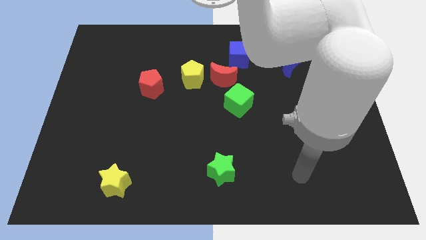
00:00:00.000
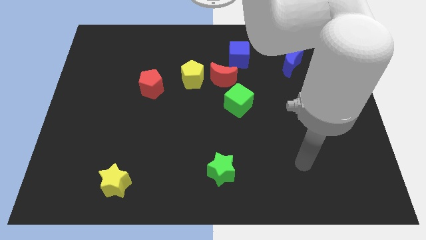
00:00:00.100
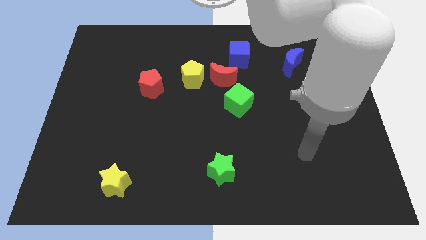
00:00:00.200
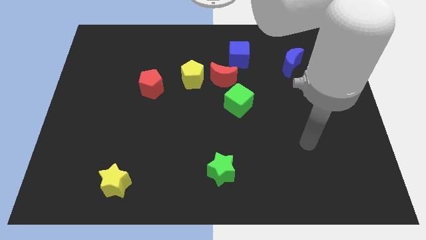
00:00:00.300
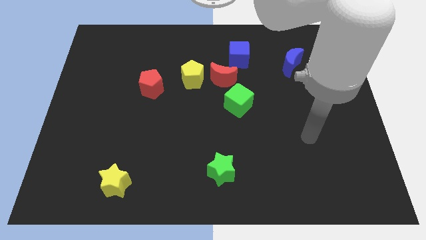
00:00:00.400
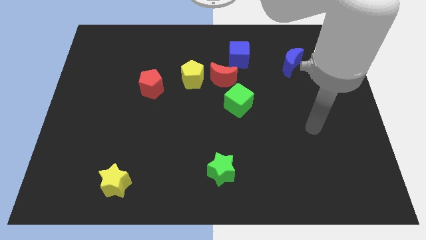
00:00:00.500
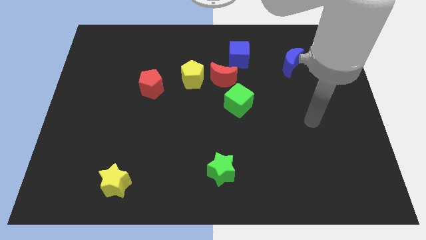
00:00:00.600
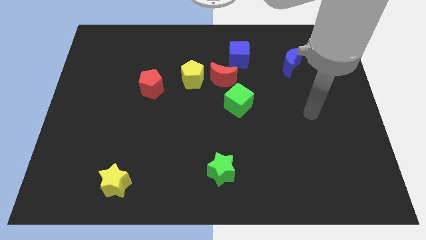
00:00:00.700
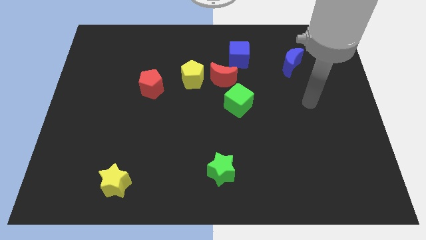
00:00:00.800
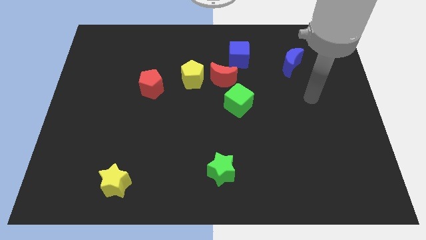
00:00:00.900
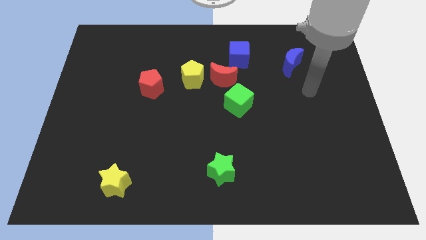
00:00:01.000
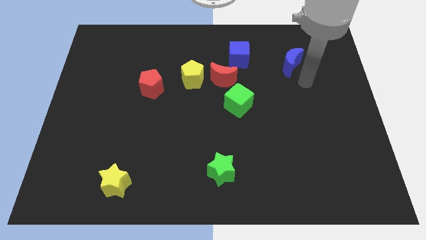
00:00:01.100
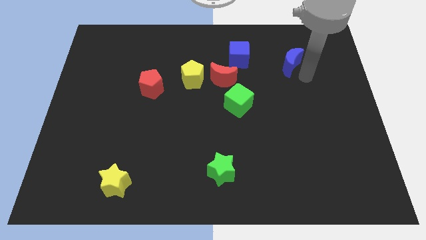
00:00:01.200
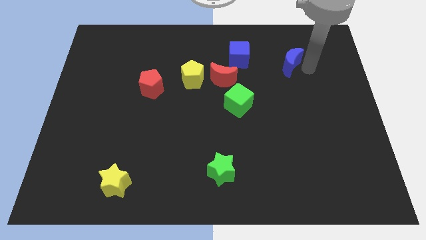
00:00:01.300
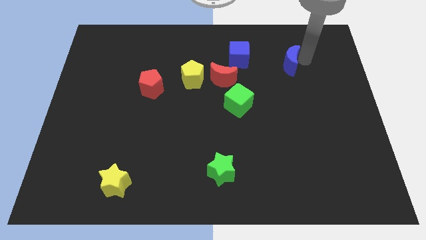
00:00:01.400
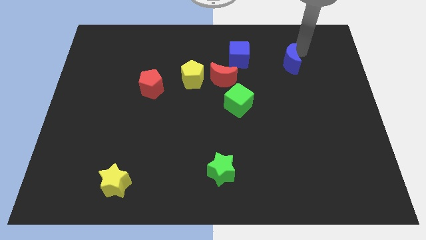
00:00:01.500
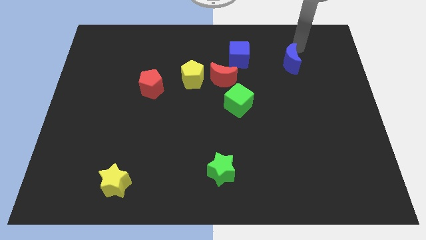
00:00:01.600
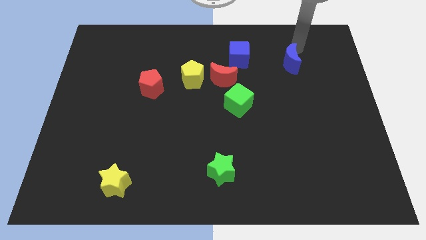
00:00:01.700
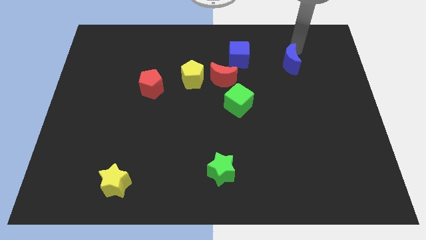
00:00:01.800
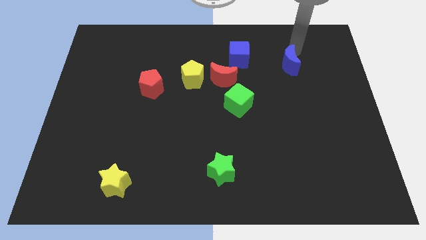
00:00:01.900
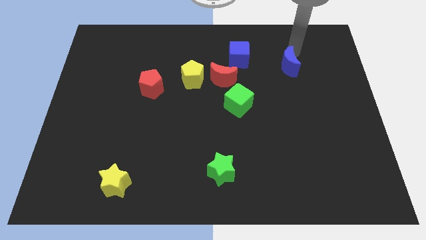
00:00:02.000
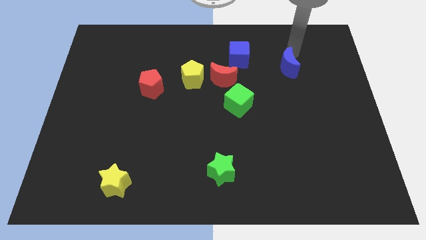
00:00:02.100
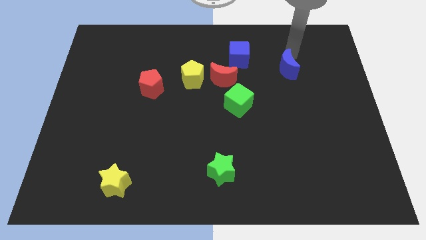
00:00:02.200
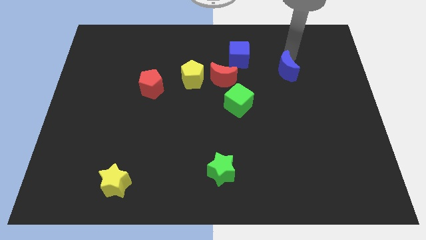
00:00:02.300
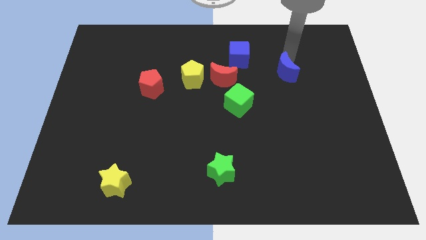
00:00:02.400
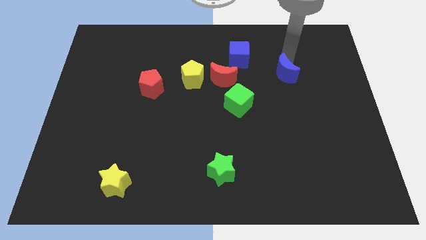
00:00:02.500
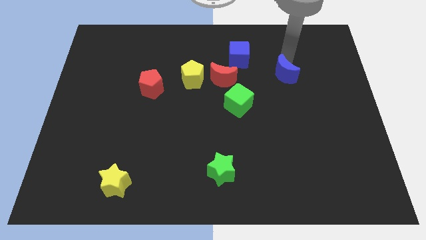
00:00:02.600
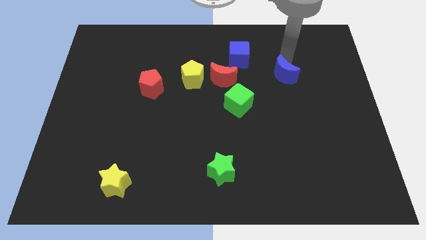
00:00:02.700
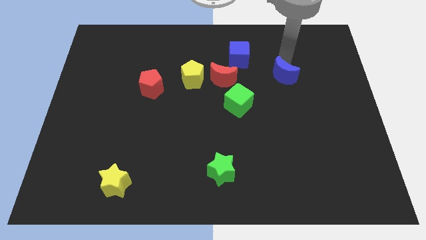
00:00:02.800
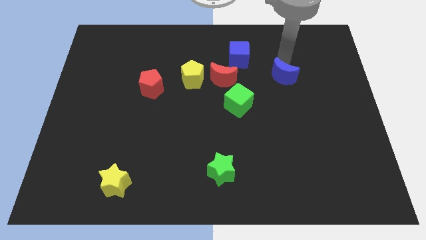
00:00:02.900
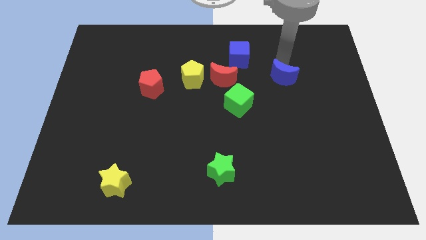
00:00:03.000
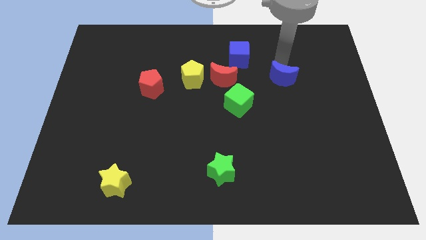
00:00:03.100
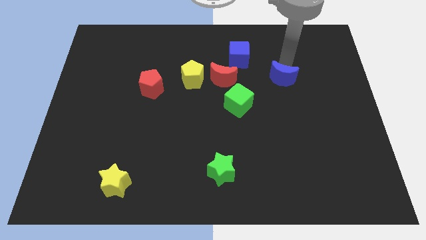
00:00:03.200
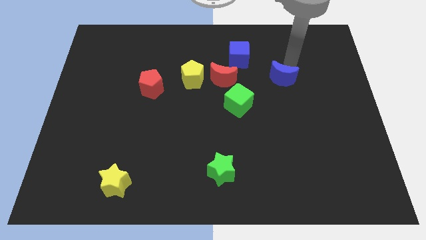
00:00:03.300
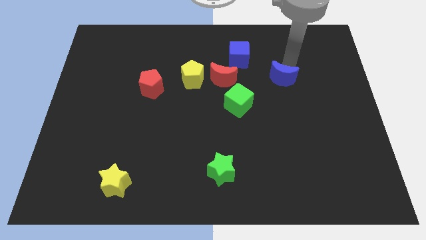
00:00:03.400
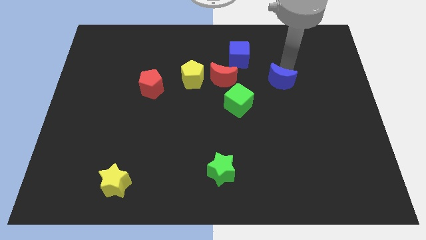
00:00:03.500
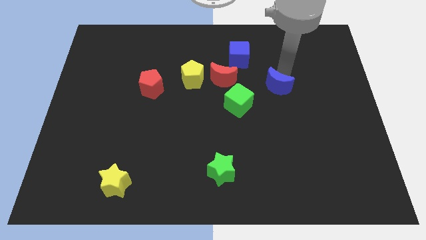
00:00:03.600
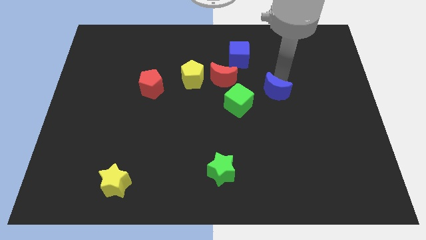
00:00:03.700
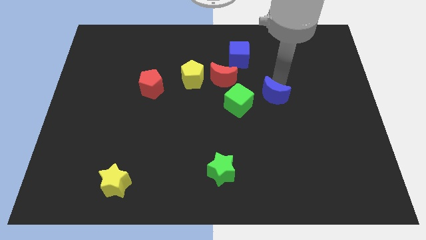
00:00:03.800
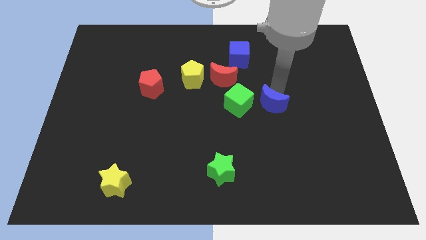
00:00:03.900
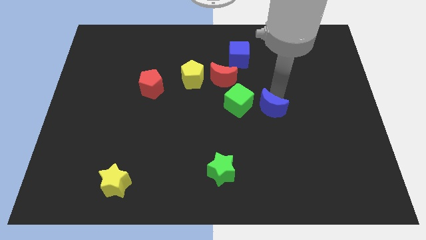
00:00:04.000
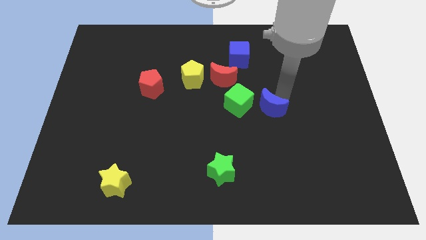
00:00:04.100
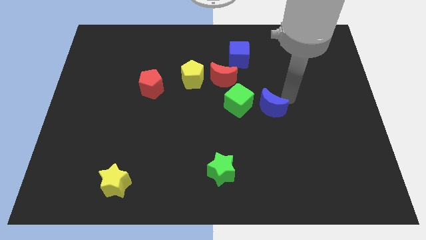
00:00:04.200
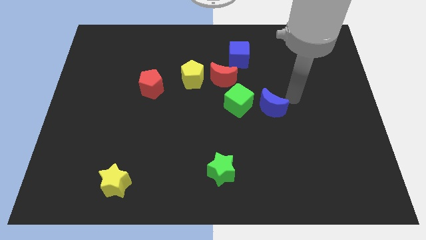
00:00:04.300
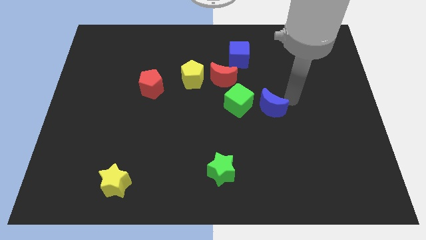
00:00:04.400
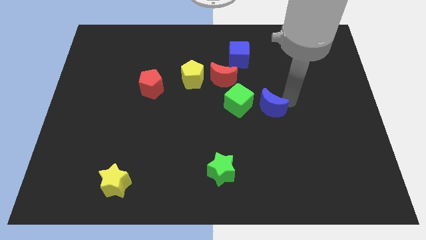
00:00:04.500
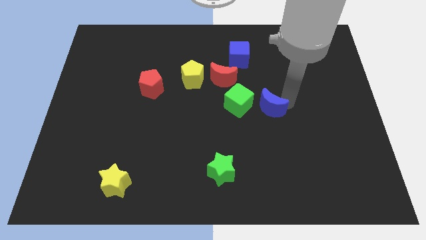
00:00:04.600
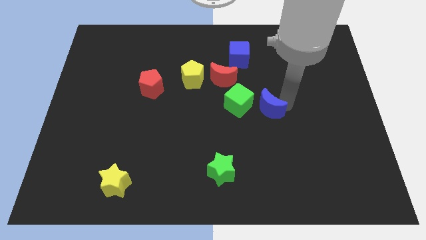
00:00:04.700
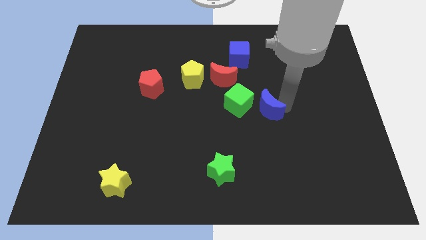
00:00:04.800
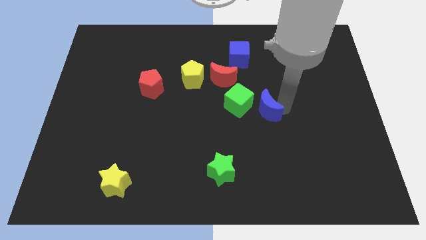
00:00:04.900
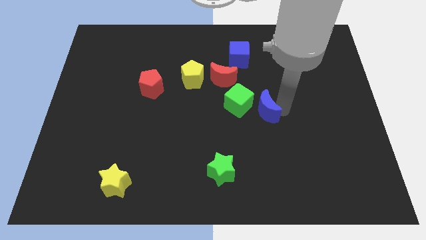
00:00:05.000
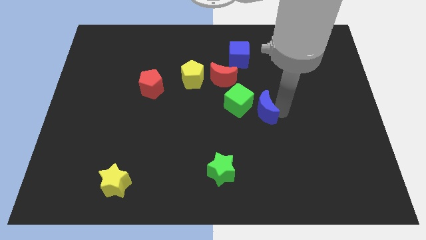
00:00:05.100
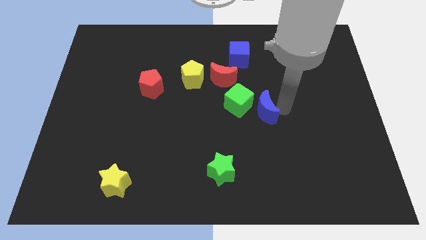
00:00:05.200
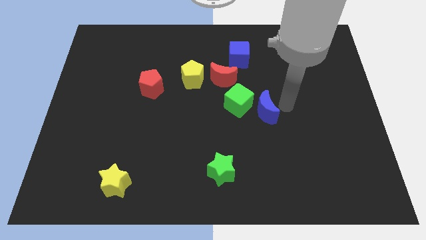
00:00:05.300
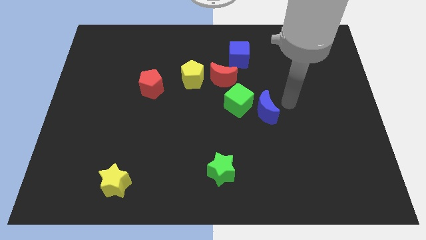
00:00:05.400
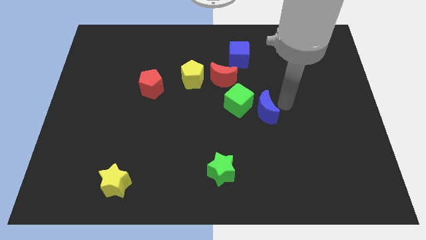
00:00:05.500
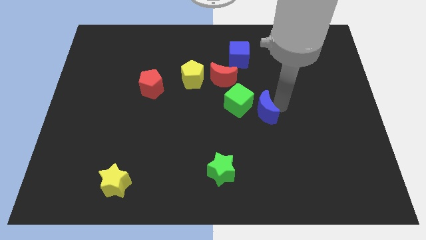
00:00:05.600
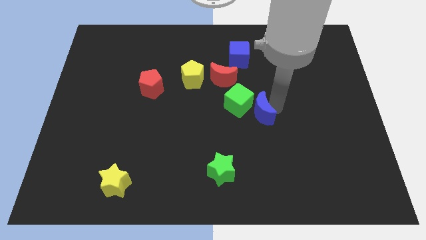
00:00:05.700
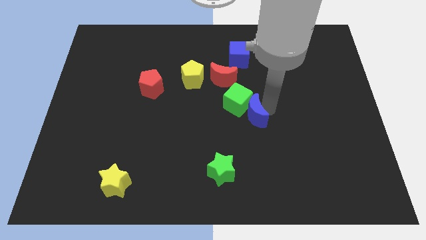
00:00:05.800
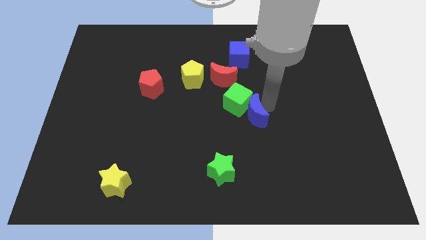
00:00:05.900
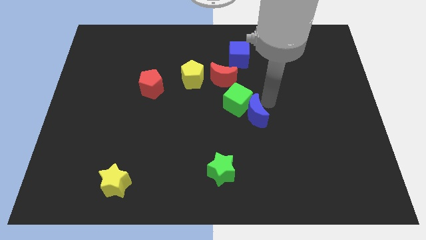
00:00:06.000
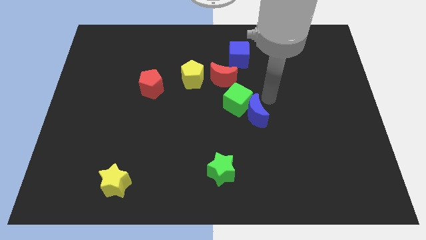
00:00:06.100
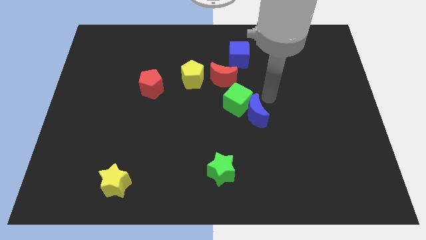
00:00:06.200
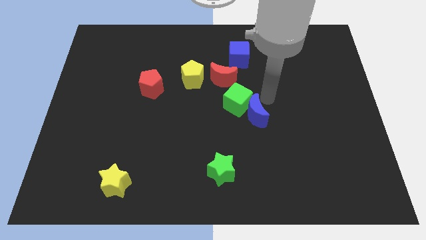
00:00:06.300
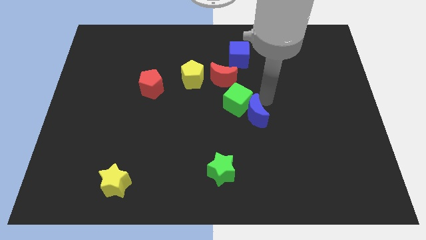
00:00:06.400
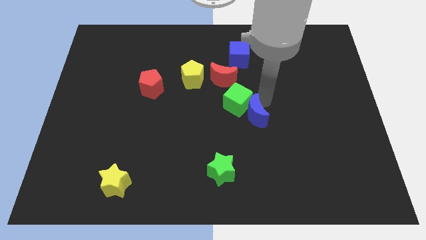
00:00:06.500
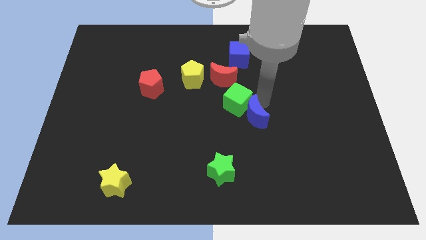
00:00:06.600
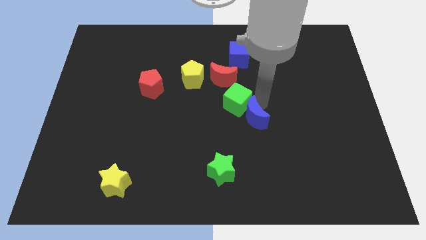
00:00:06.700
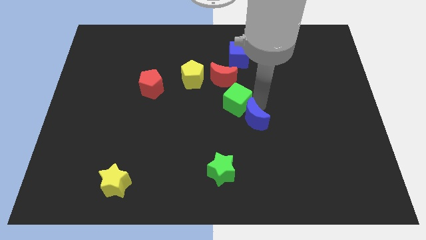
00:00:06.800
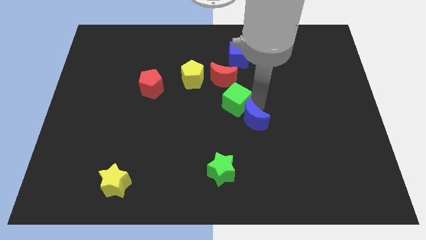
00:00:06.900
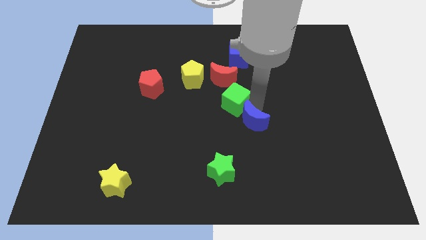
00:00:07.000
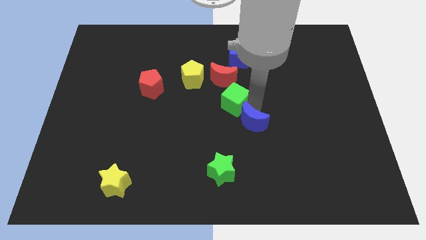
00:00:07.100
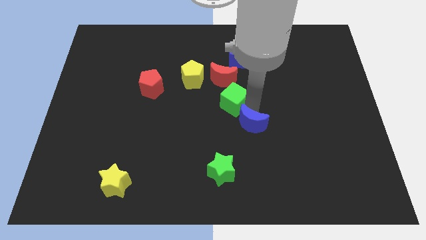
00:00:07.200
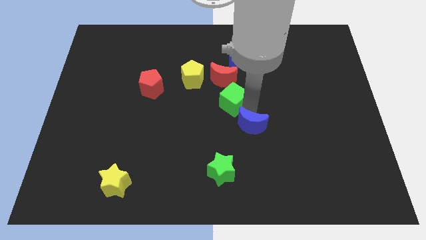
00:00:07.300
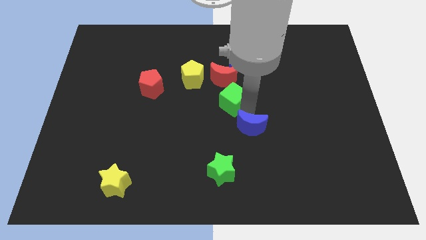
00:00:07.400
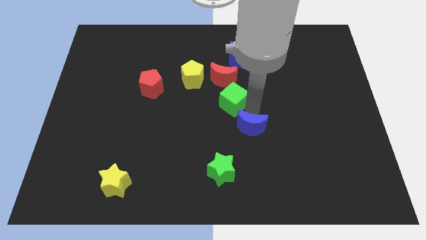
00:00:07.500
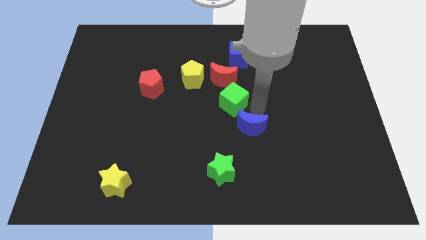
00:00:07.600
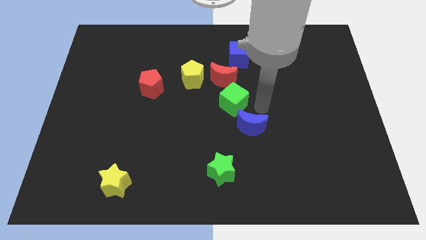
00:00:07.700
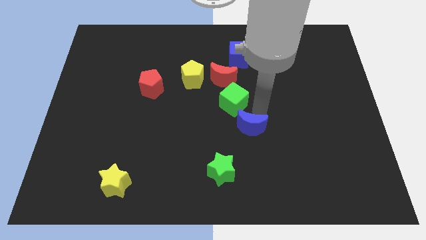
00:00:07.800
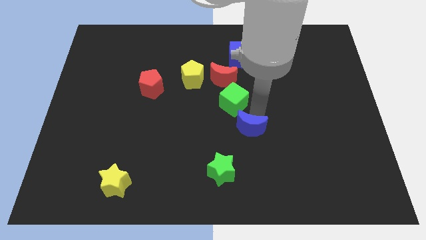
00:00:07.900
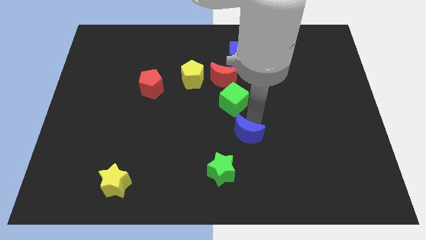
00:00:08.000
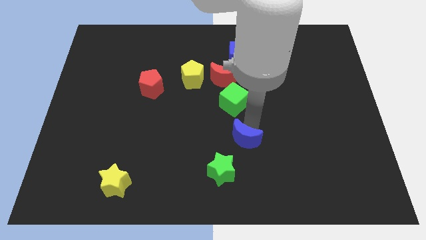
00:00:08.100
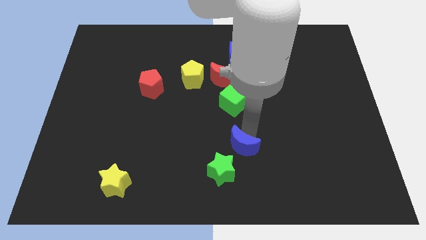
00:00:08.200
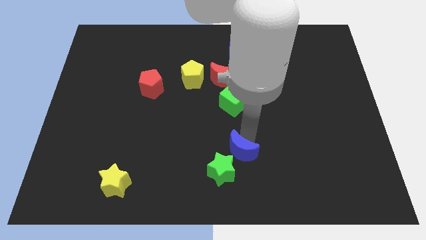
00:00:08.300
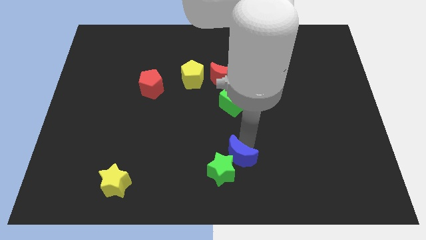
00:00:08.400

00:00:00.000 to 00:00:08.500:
slide the blue moon to the green star
